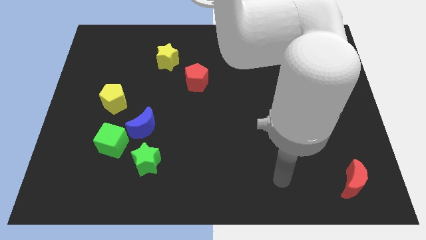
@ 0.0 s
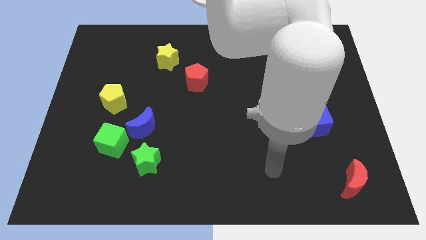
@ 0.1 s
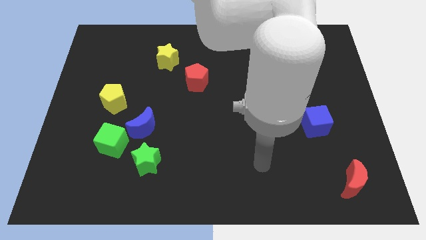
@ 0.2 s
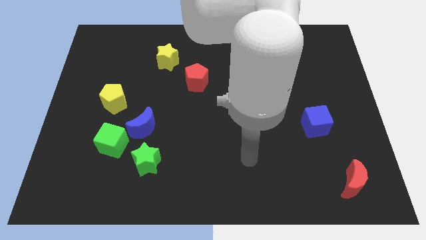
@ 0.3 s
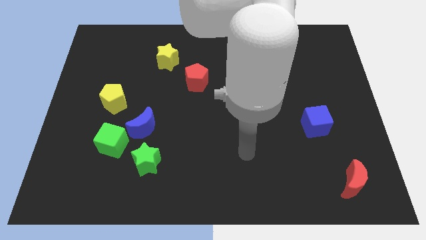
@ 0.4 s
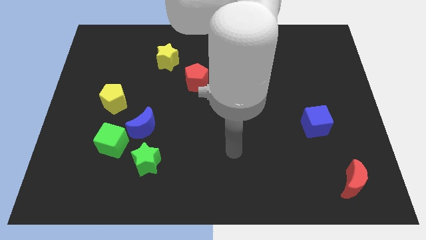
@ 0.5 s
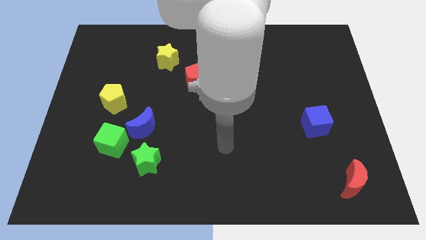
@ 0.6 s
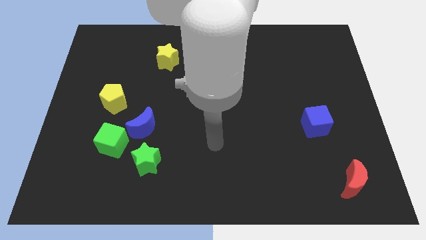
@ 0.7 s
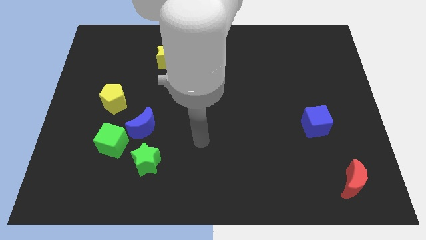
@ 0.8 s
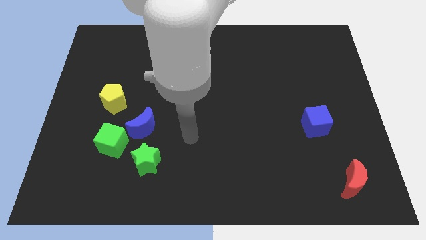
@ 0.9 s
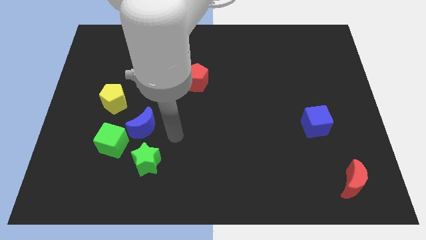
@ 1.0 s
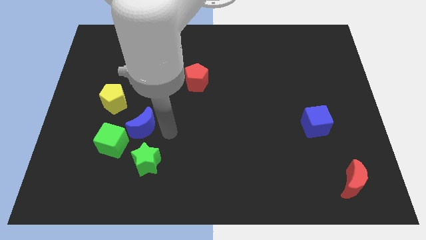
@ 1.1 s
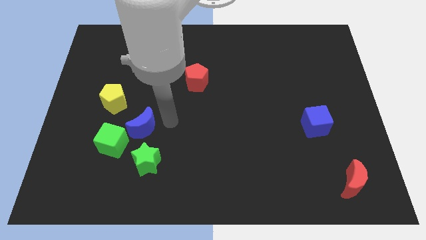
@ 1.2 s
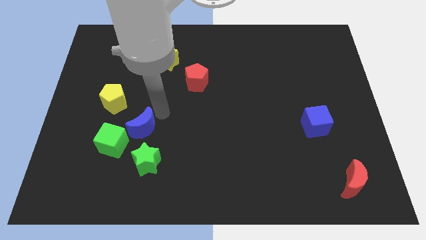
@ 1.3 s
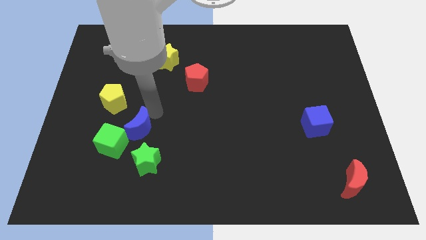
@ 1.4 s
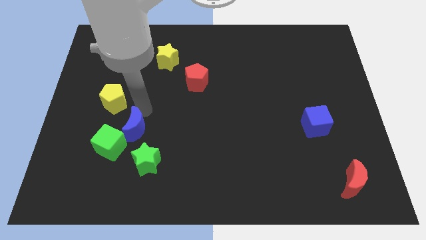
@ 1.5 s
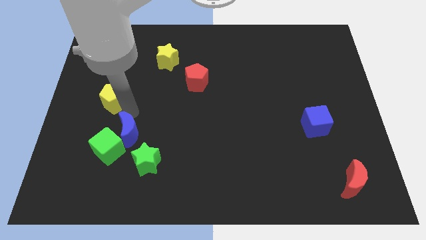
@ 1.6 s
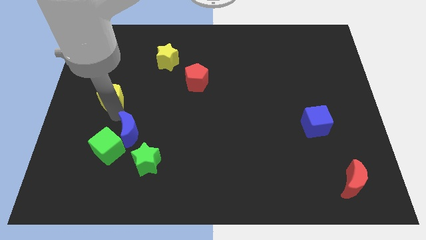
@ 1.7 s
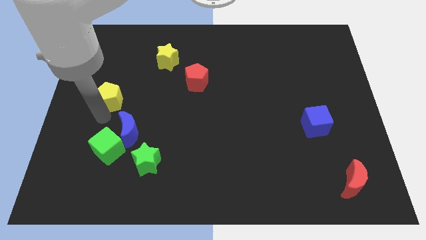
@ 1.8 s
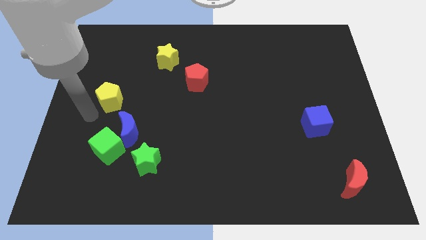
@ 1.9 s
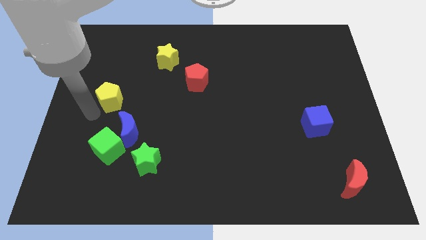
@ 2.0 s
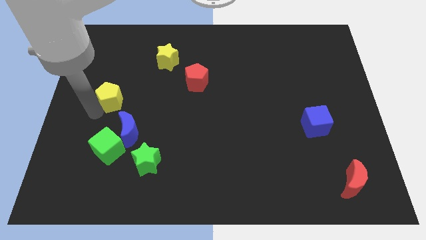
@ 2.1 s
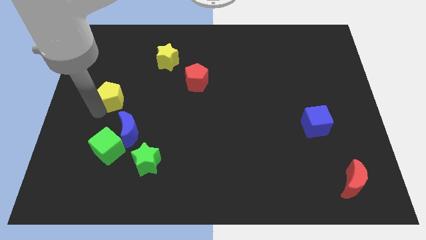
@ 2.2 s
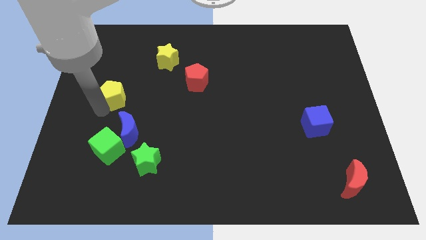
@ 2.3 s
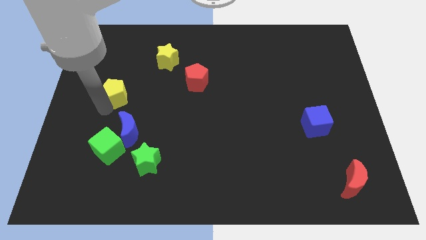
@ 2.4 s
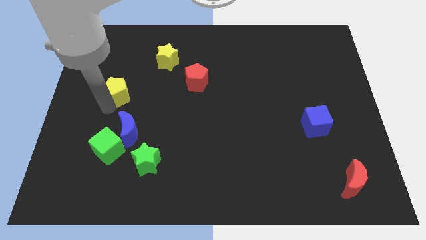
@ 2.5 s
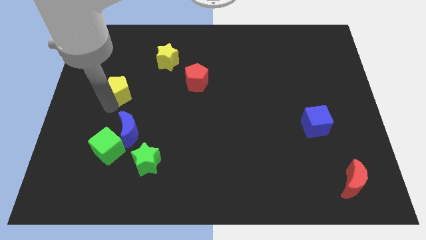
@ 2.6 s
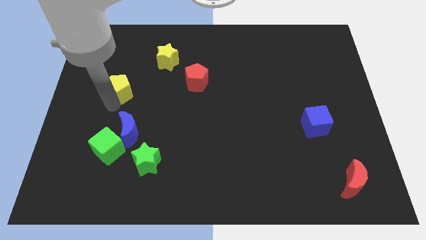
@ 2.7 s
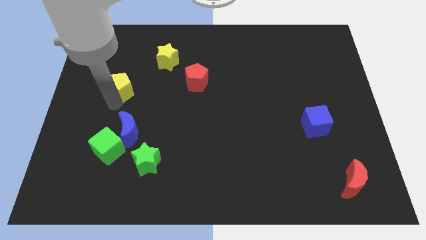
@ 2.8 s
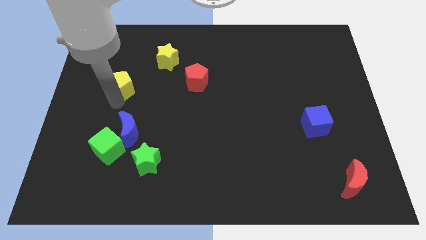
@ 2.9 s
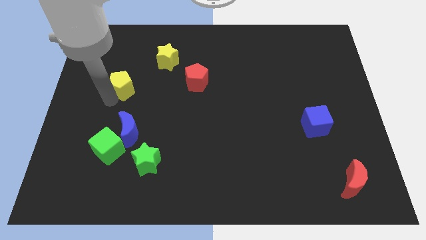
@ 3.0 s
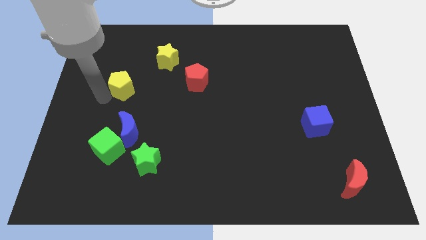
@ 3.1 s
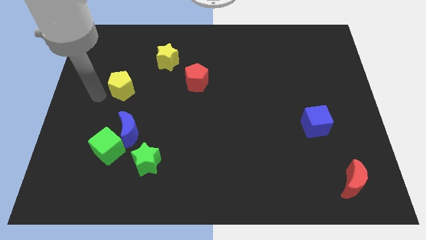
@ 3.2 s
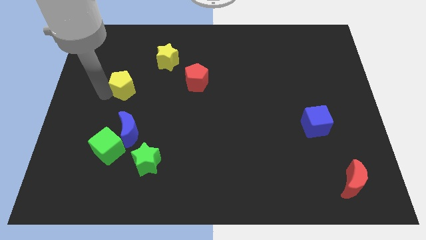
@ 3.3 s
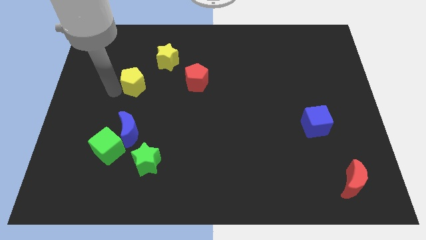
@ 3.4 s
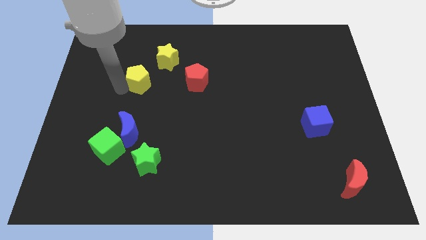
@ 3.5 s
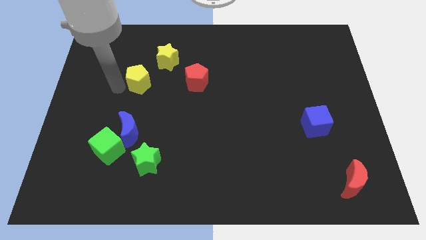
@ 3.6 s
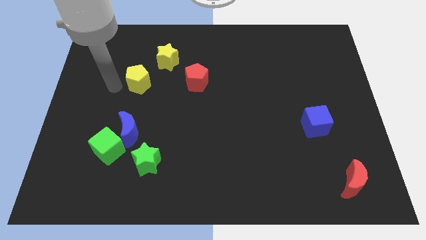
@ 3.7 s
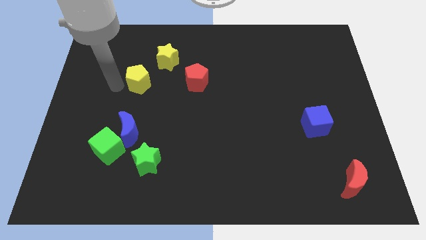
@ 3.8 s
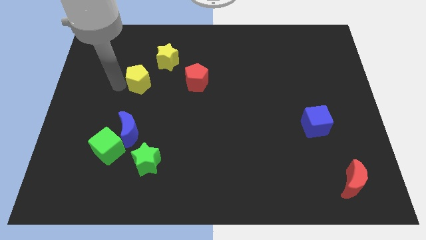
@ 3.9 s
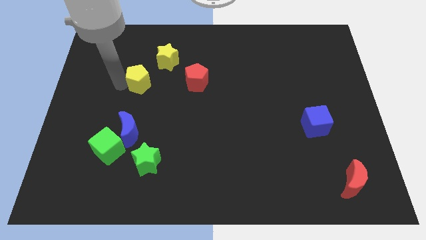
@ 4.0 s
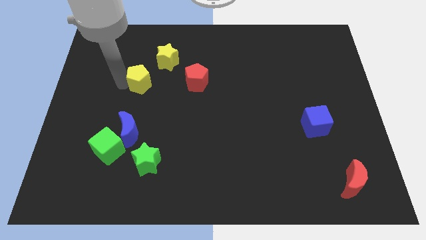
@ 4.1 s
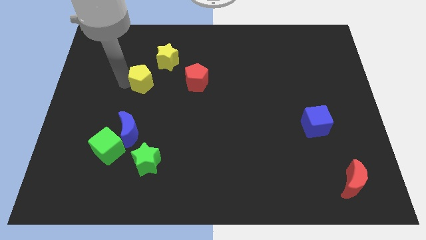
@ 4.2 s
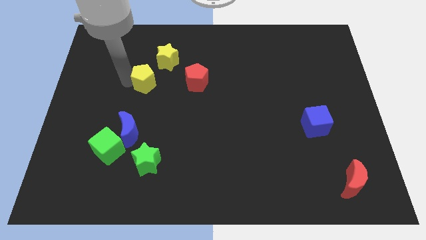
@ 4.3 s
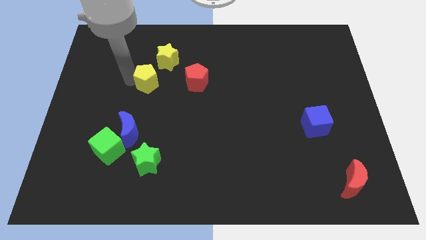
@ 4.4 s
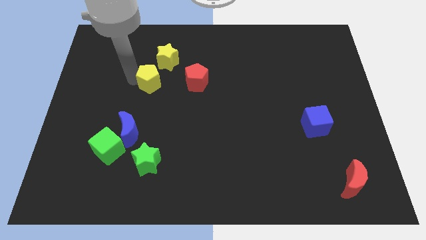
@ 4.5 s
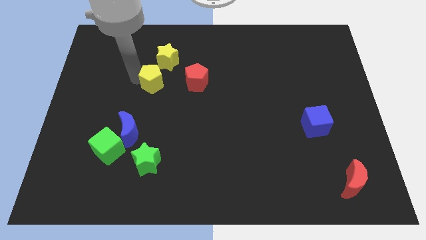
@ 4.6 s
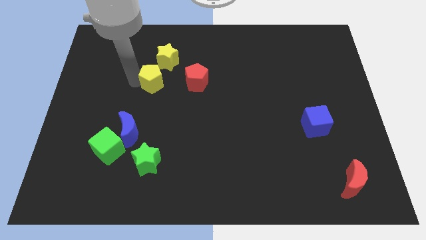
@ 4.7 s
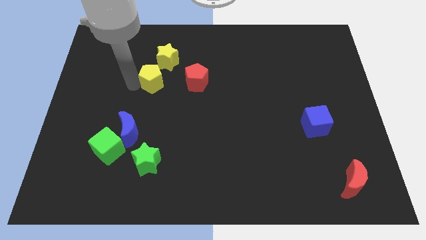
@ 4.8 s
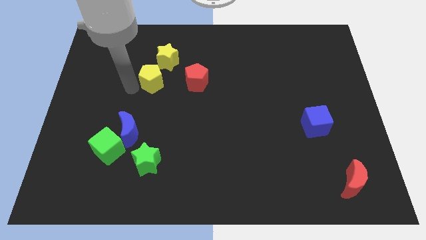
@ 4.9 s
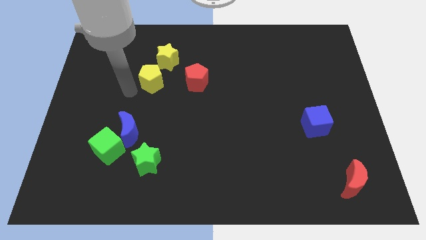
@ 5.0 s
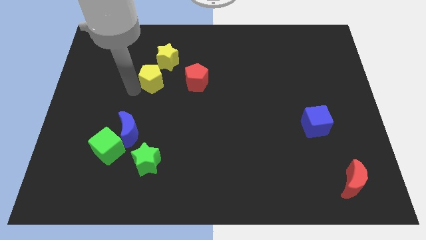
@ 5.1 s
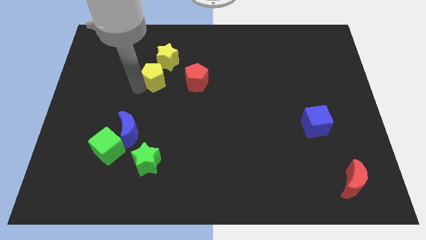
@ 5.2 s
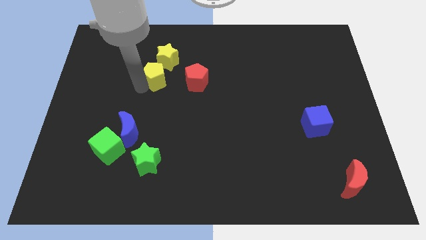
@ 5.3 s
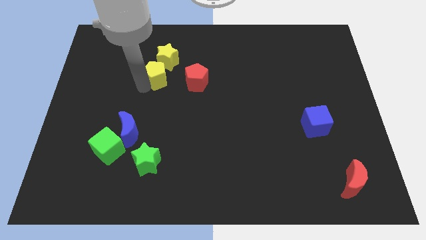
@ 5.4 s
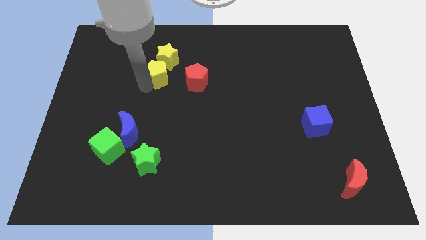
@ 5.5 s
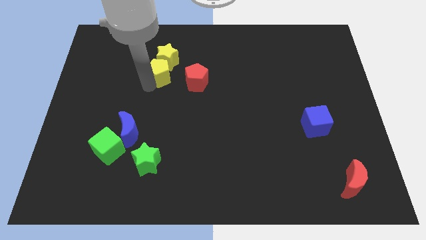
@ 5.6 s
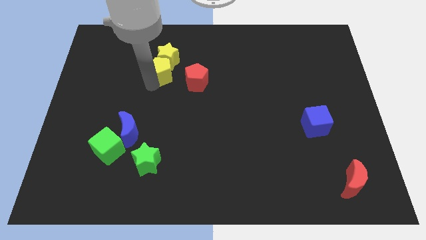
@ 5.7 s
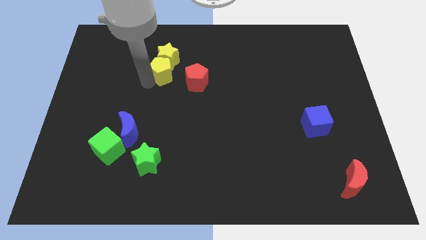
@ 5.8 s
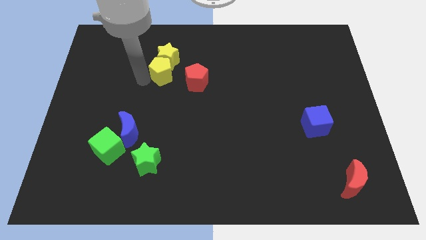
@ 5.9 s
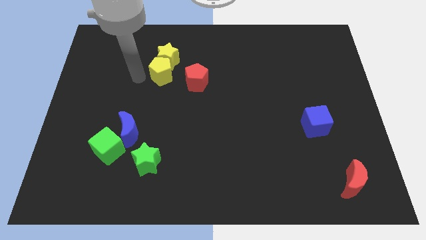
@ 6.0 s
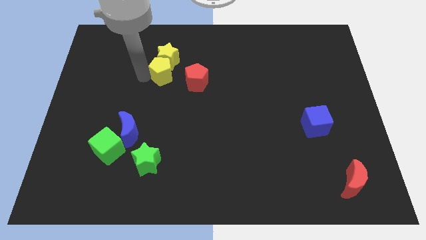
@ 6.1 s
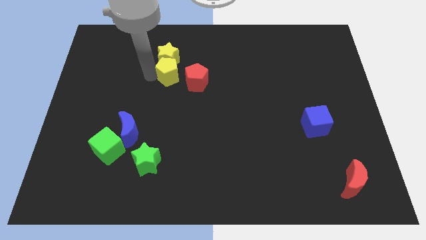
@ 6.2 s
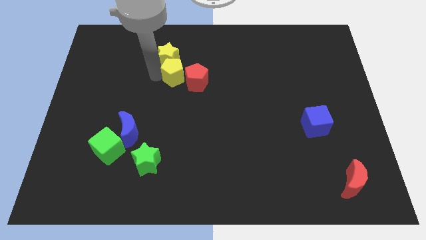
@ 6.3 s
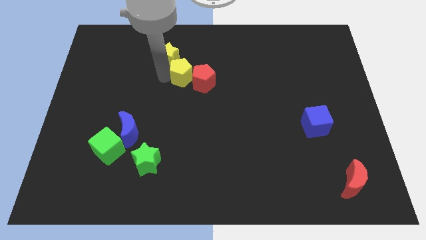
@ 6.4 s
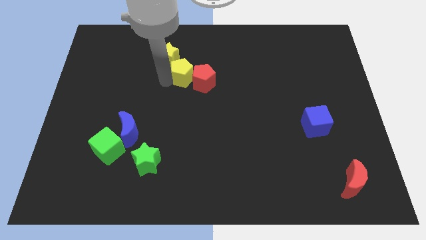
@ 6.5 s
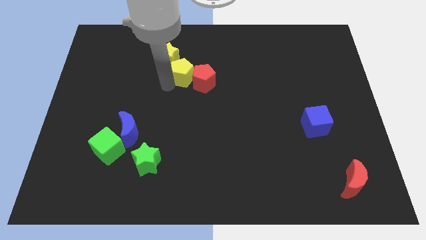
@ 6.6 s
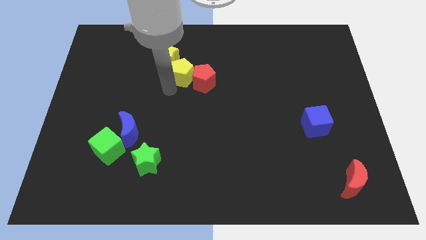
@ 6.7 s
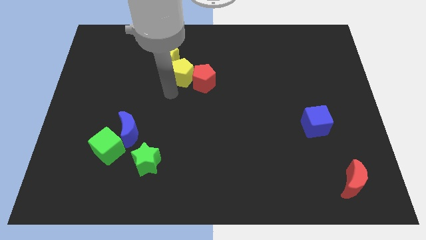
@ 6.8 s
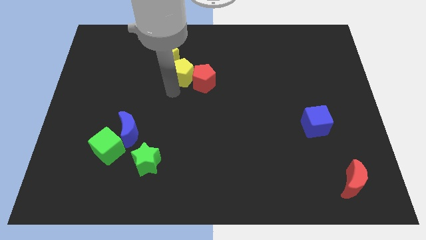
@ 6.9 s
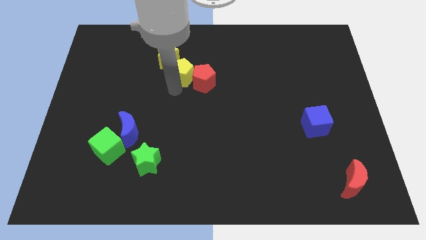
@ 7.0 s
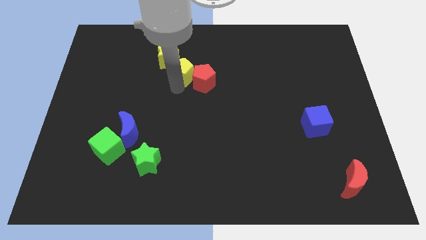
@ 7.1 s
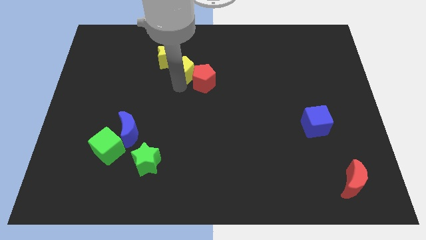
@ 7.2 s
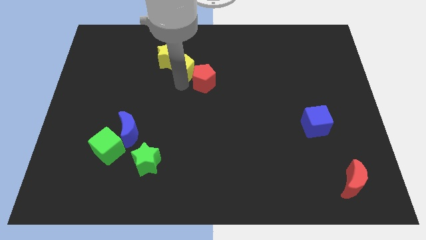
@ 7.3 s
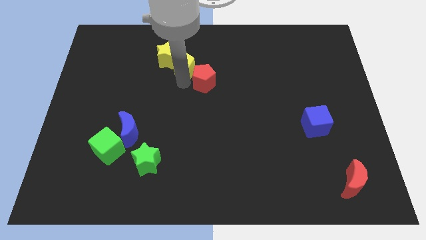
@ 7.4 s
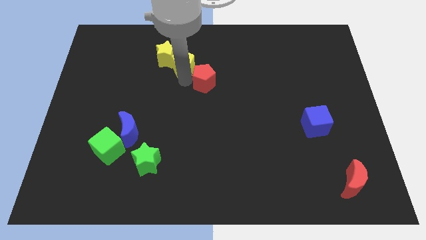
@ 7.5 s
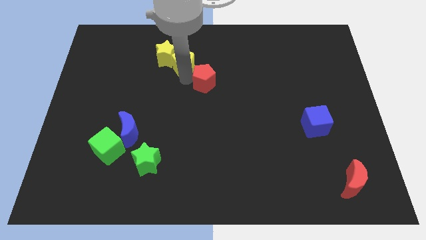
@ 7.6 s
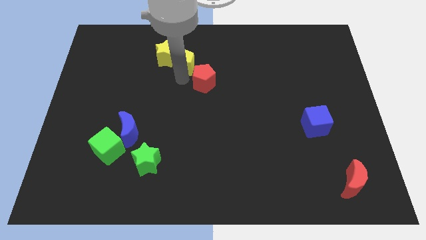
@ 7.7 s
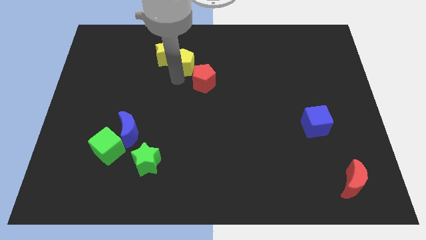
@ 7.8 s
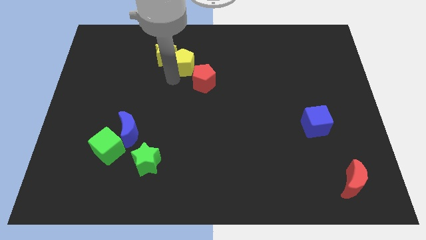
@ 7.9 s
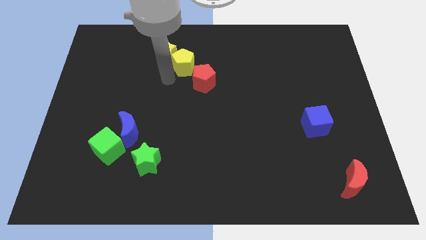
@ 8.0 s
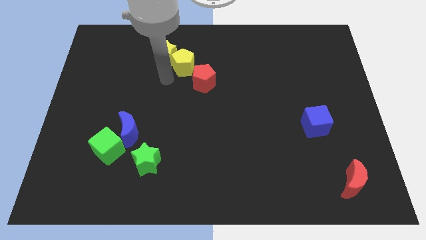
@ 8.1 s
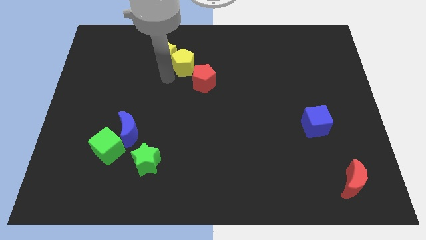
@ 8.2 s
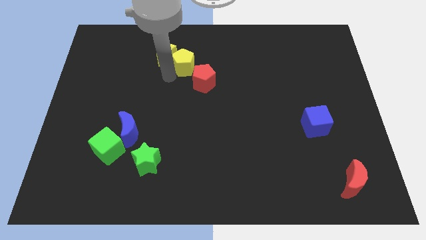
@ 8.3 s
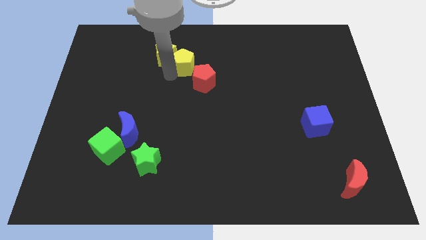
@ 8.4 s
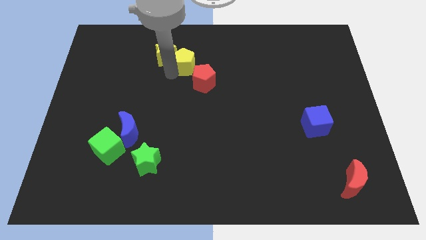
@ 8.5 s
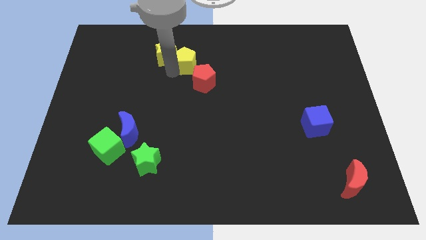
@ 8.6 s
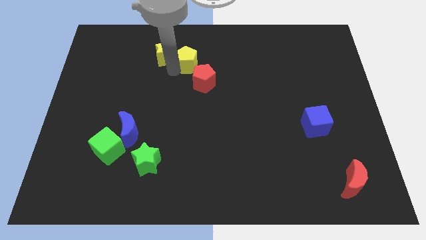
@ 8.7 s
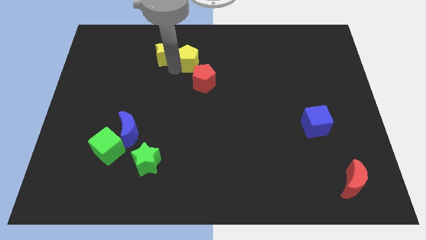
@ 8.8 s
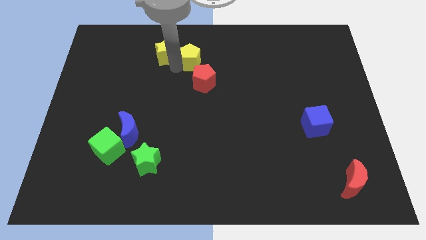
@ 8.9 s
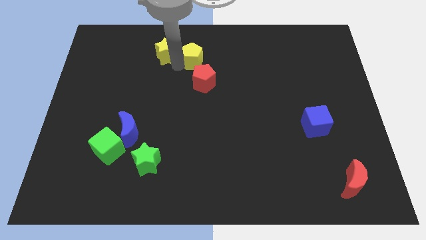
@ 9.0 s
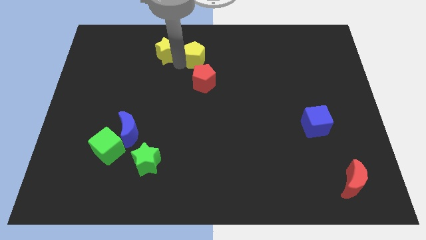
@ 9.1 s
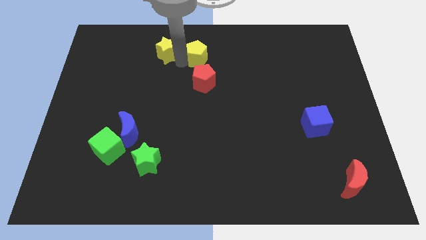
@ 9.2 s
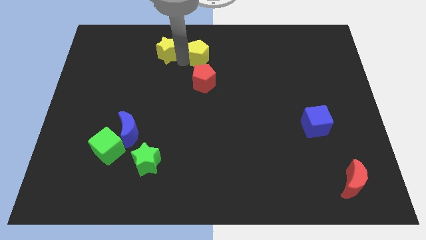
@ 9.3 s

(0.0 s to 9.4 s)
put the yellow pentagon to the top
